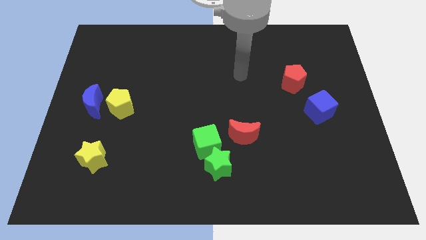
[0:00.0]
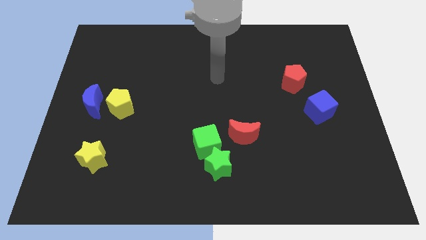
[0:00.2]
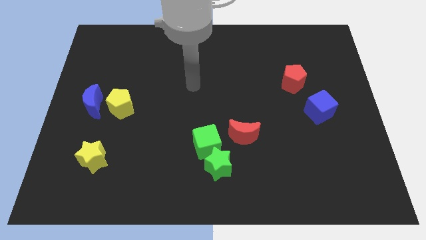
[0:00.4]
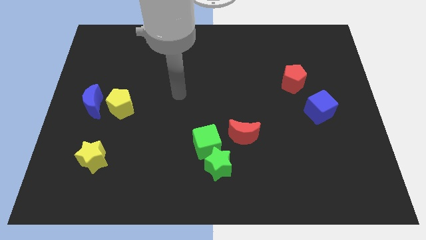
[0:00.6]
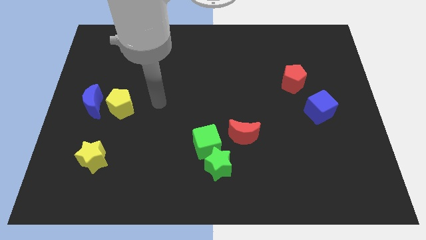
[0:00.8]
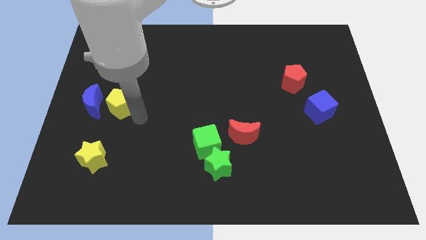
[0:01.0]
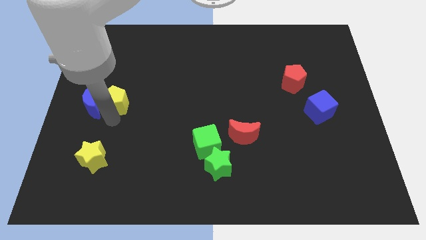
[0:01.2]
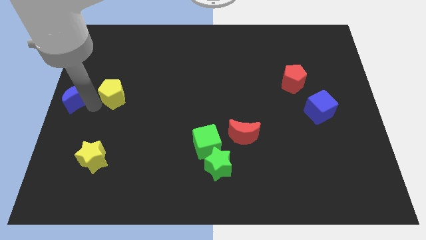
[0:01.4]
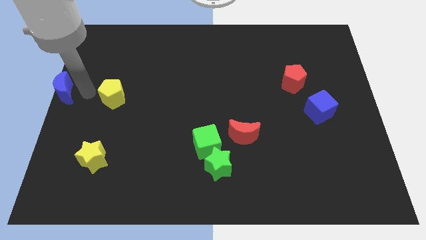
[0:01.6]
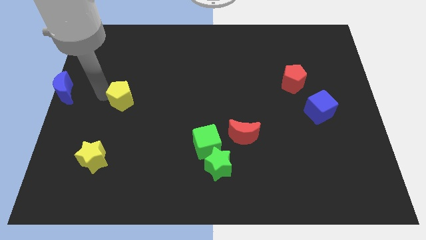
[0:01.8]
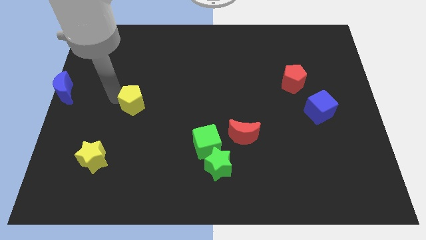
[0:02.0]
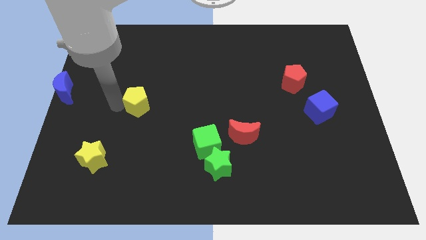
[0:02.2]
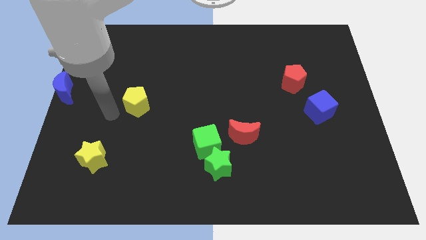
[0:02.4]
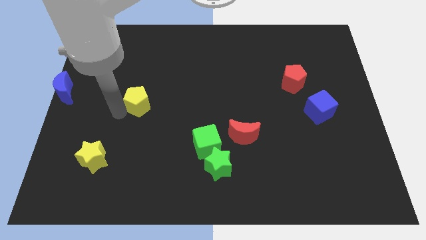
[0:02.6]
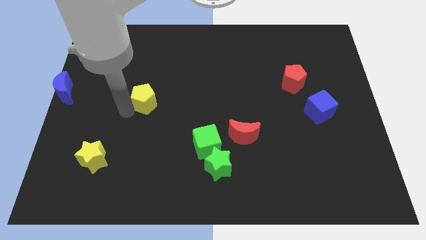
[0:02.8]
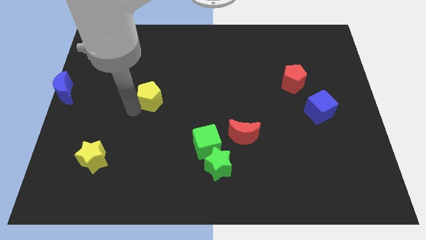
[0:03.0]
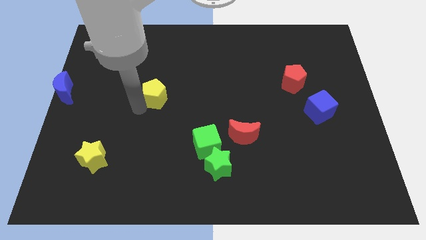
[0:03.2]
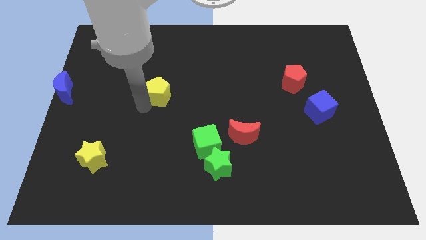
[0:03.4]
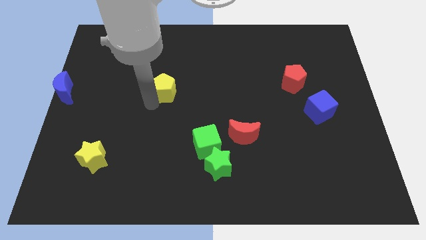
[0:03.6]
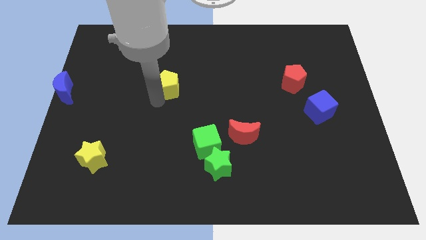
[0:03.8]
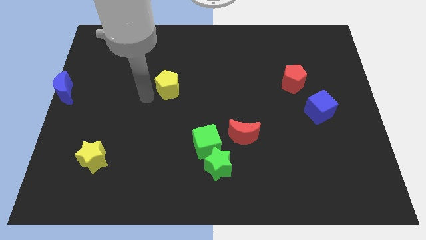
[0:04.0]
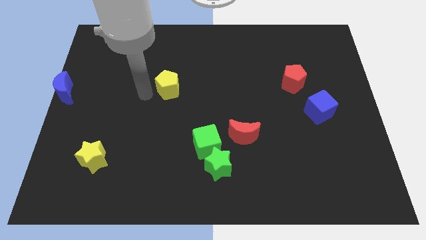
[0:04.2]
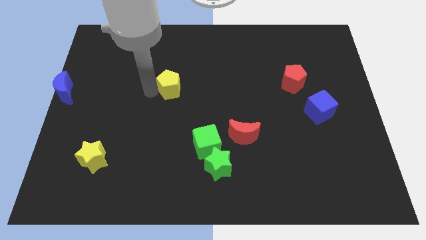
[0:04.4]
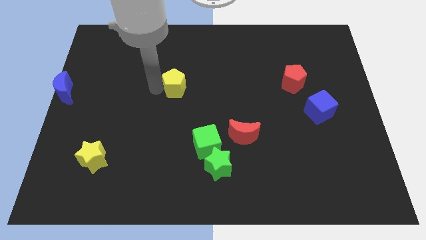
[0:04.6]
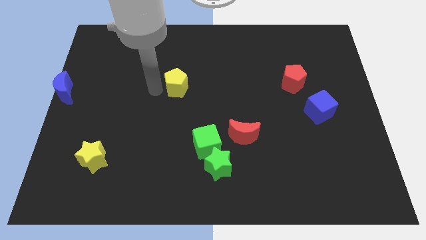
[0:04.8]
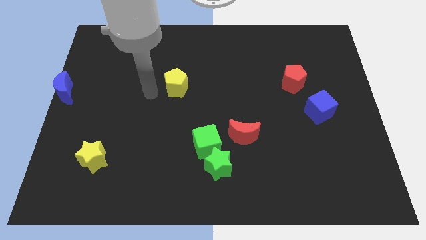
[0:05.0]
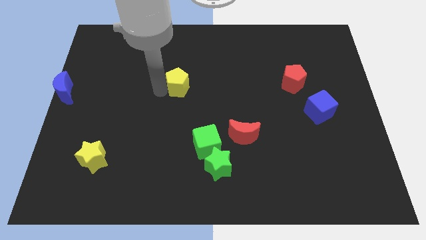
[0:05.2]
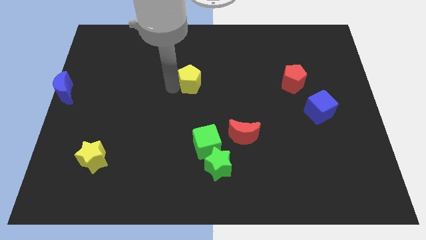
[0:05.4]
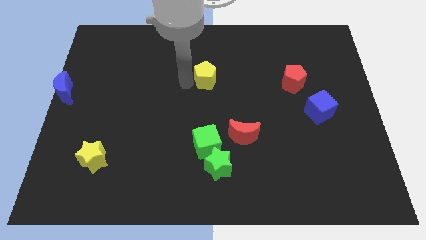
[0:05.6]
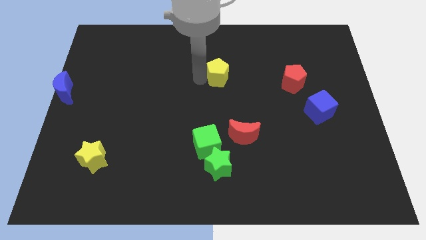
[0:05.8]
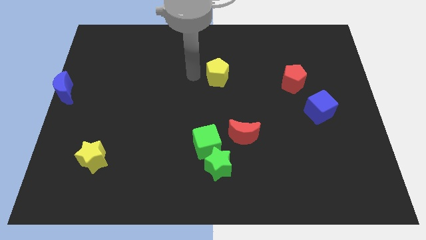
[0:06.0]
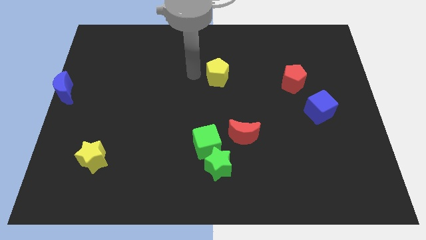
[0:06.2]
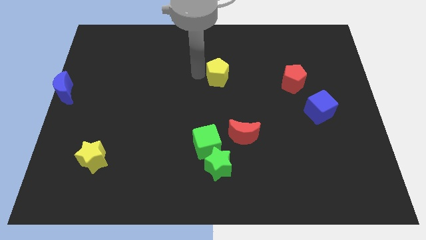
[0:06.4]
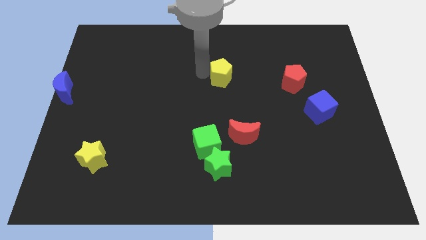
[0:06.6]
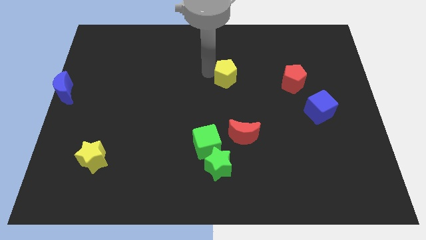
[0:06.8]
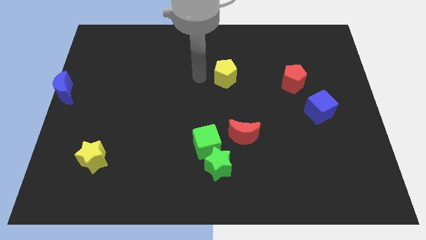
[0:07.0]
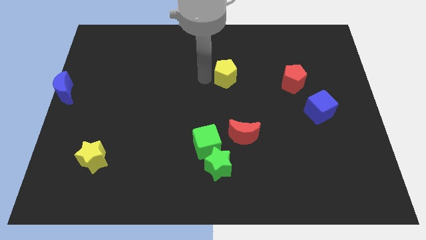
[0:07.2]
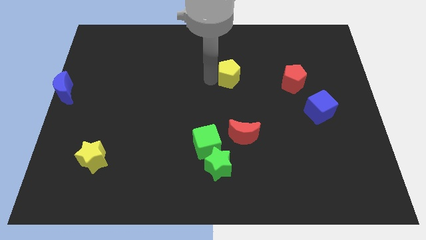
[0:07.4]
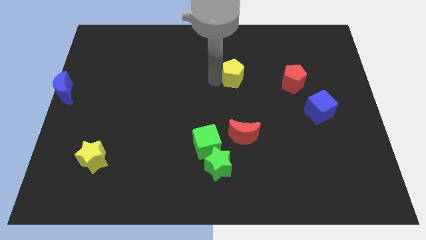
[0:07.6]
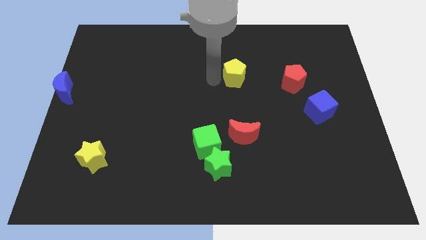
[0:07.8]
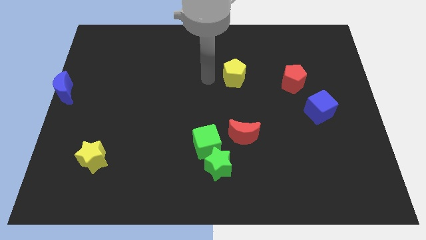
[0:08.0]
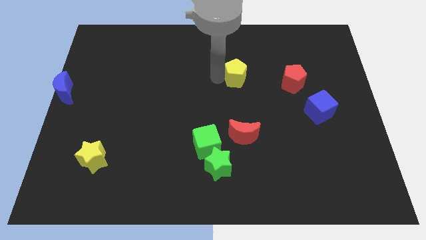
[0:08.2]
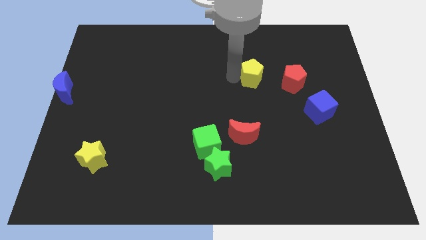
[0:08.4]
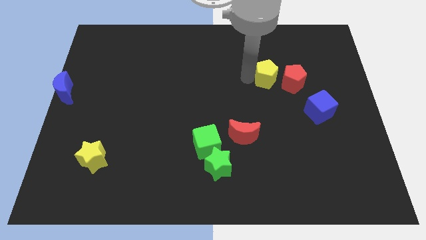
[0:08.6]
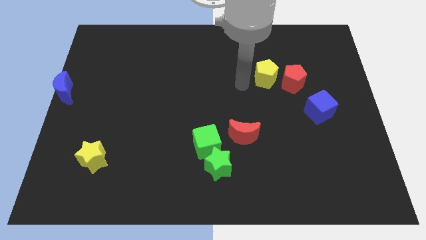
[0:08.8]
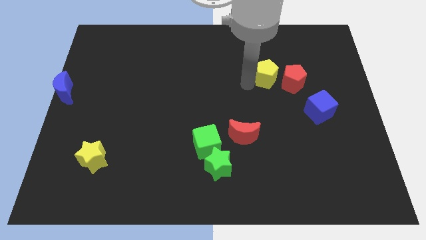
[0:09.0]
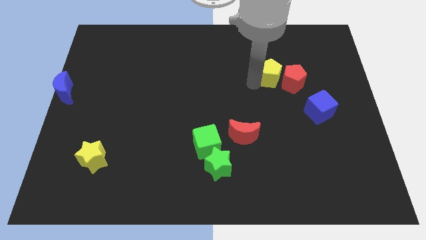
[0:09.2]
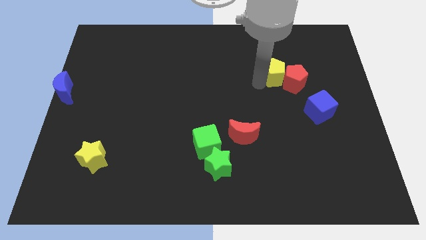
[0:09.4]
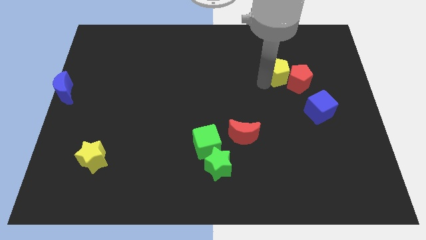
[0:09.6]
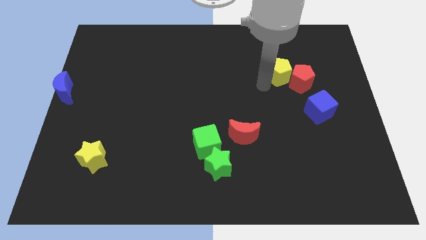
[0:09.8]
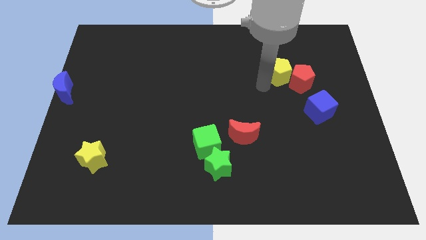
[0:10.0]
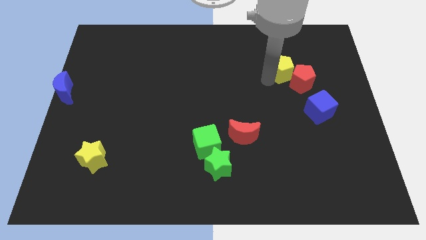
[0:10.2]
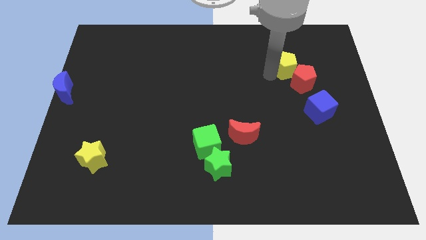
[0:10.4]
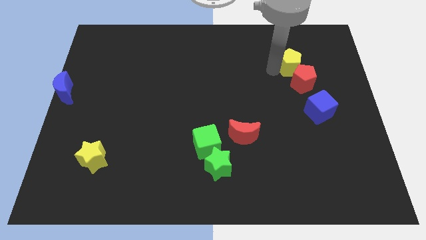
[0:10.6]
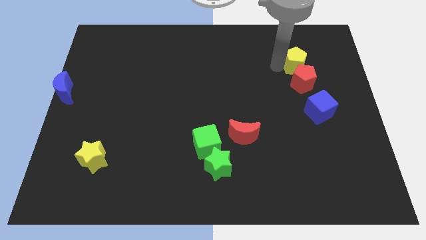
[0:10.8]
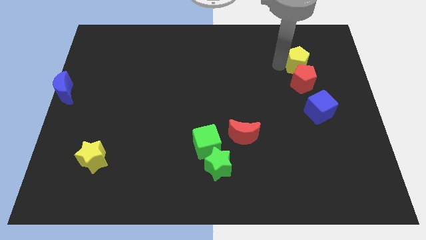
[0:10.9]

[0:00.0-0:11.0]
put the yellow pentagon to the top right side of the red pentagon

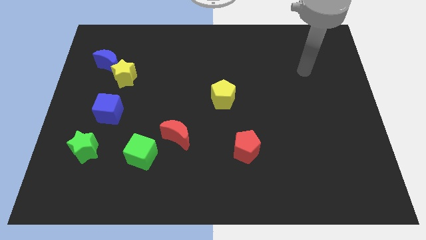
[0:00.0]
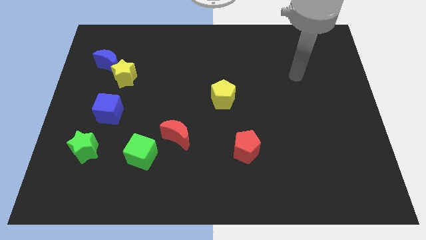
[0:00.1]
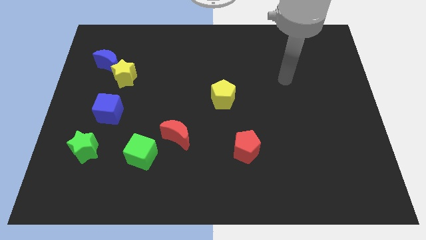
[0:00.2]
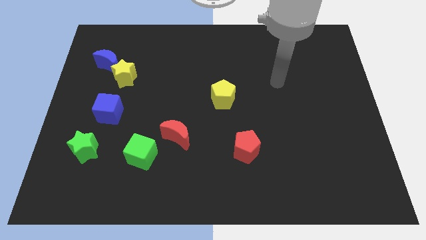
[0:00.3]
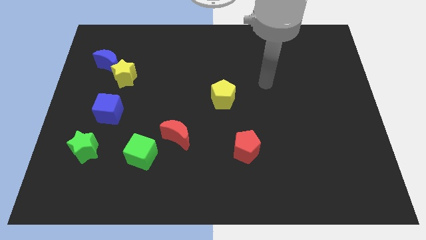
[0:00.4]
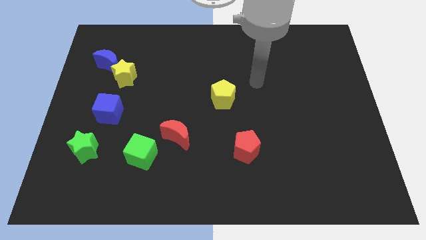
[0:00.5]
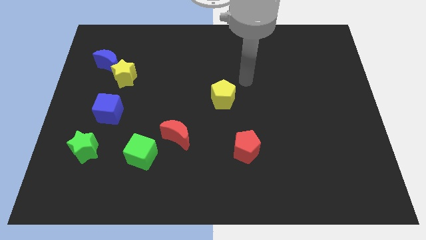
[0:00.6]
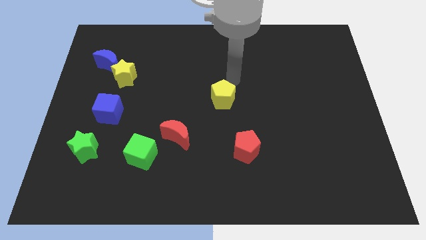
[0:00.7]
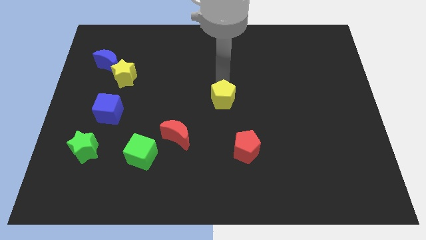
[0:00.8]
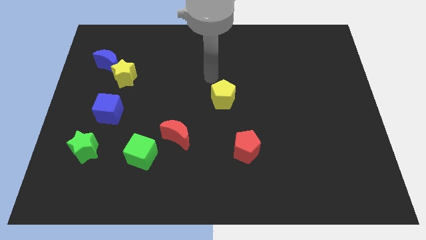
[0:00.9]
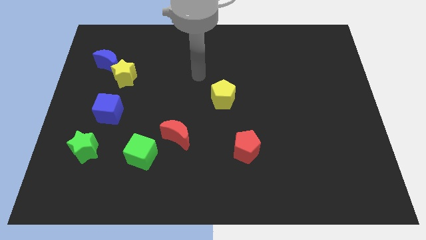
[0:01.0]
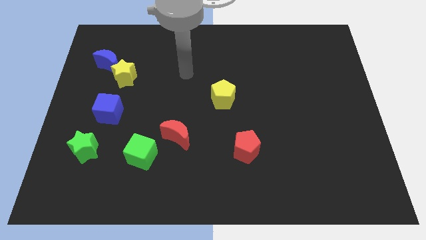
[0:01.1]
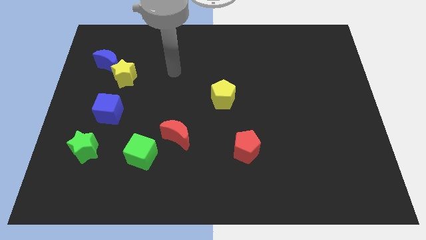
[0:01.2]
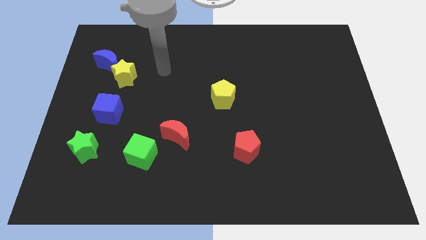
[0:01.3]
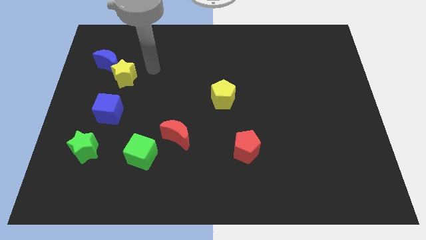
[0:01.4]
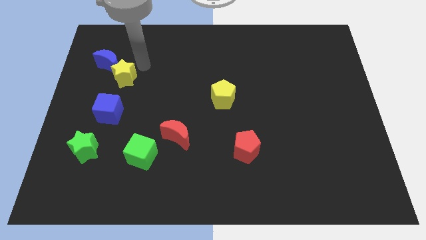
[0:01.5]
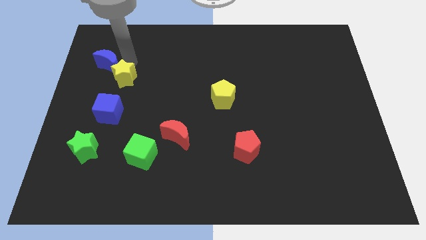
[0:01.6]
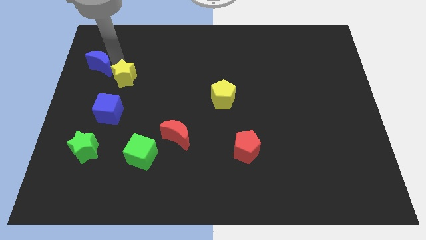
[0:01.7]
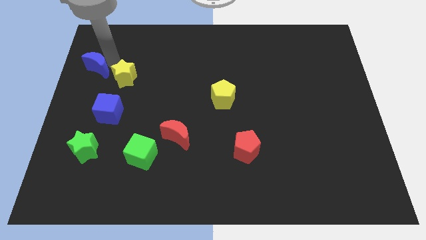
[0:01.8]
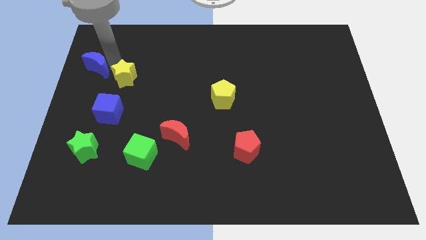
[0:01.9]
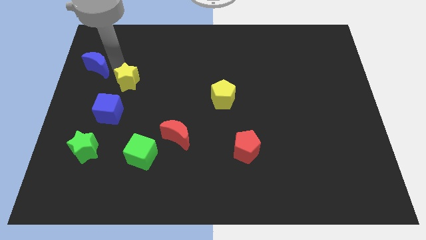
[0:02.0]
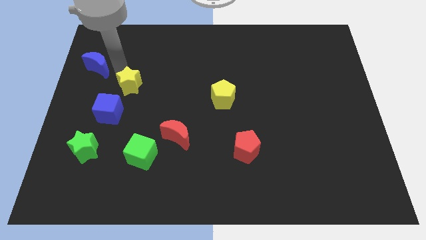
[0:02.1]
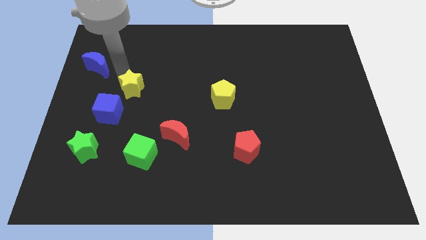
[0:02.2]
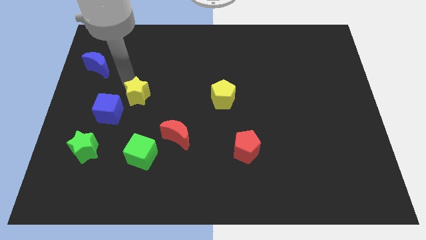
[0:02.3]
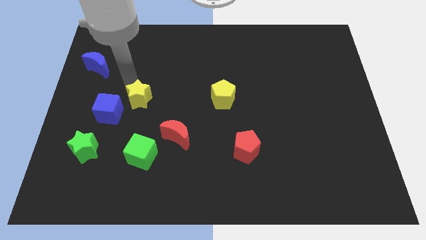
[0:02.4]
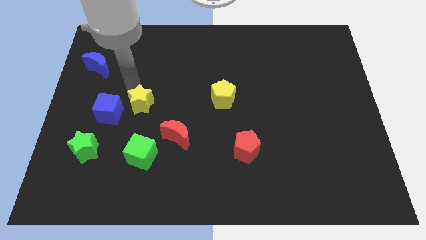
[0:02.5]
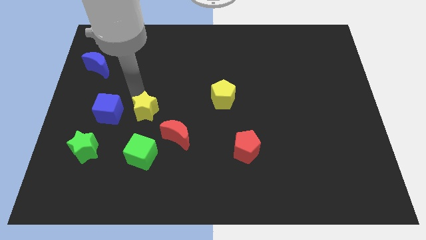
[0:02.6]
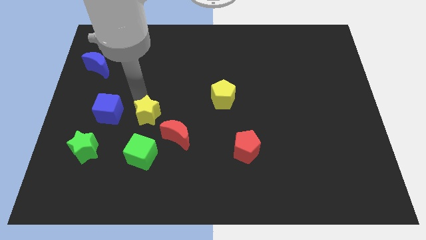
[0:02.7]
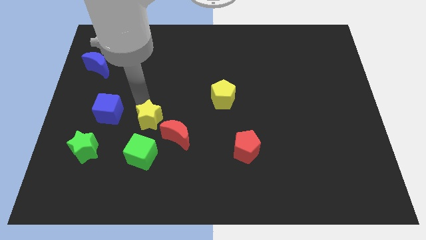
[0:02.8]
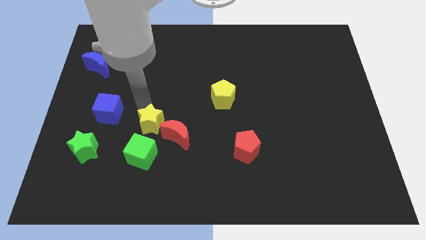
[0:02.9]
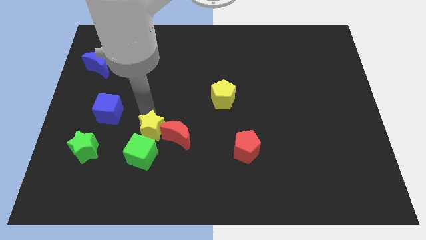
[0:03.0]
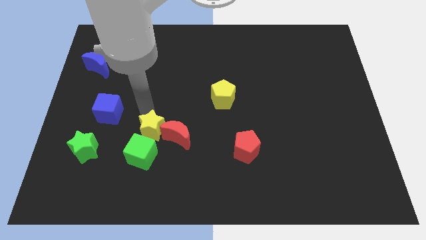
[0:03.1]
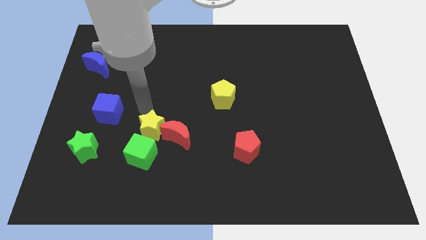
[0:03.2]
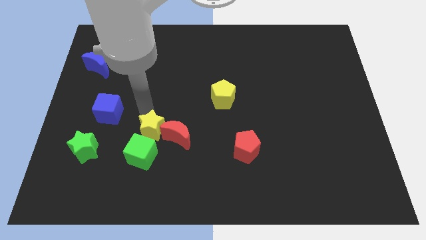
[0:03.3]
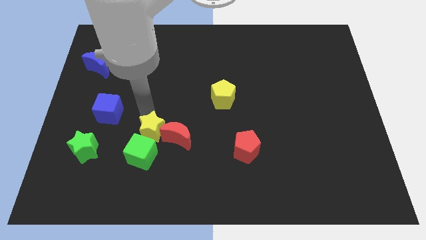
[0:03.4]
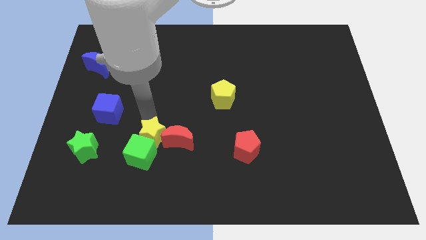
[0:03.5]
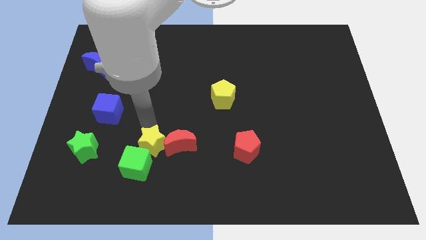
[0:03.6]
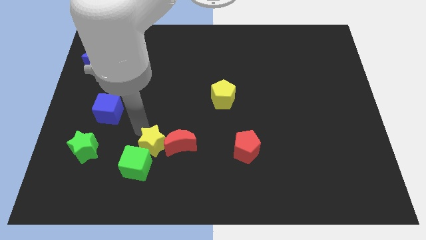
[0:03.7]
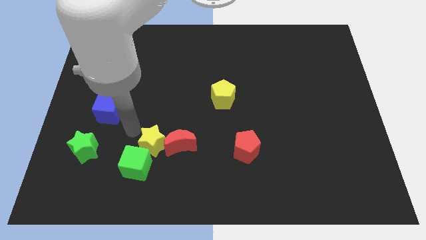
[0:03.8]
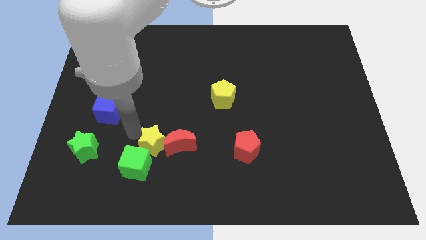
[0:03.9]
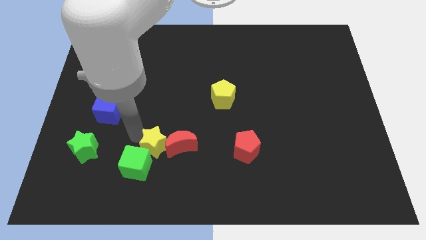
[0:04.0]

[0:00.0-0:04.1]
push the yellow star just right of the green cube
